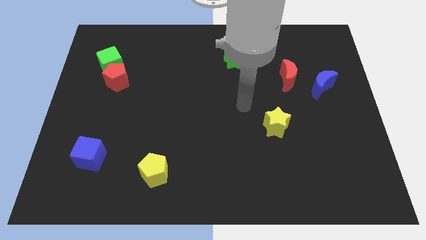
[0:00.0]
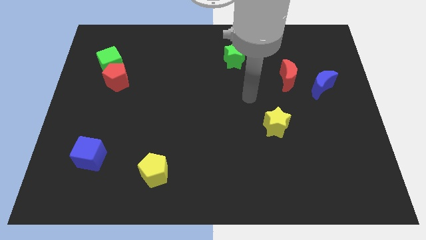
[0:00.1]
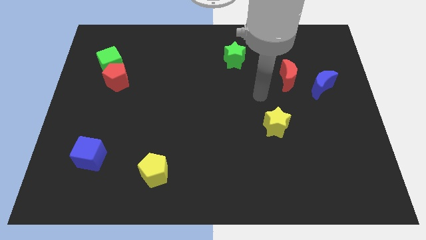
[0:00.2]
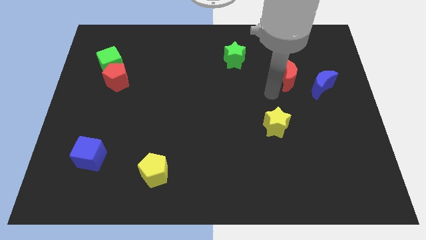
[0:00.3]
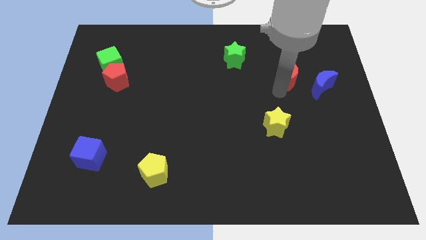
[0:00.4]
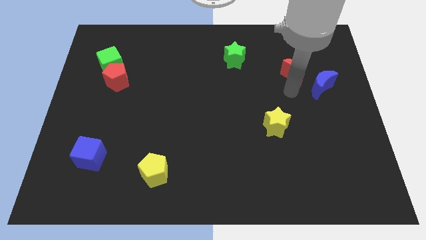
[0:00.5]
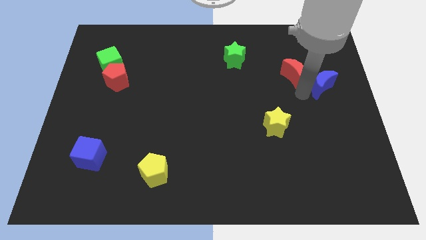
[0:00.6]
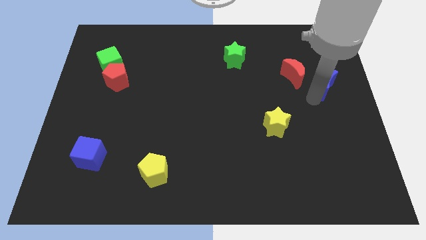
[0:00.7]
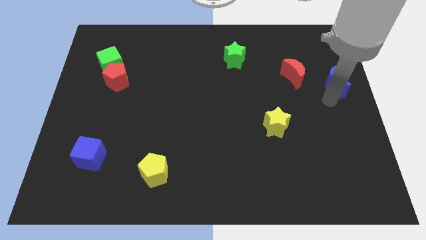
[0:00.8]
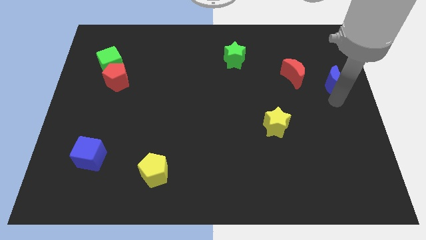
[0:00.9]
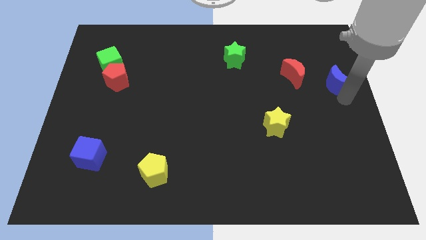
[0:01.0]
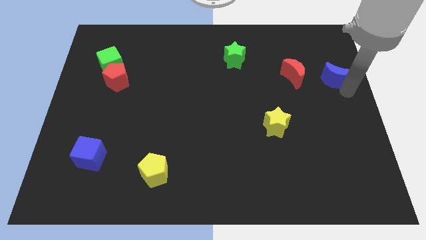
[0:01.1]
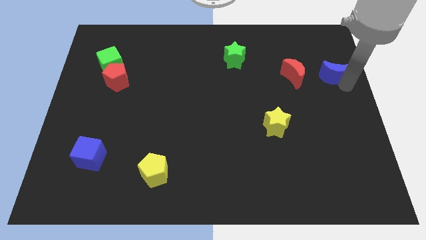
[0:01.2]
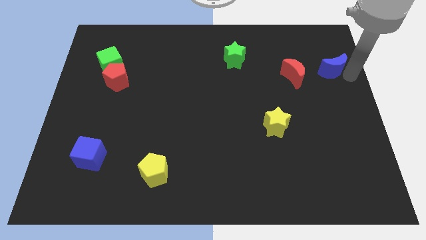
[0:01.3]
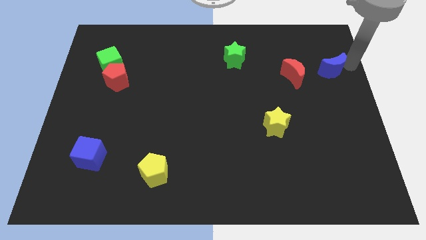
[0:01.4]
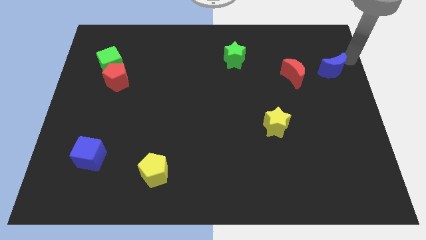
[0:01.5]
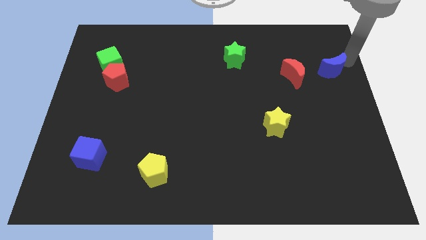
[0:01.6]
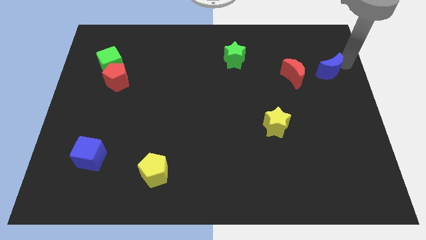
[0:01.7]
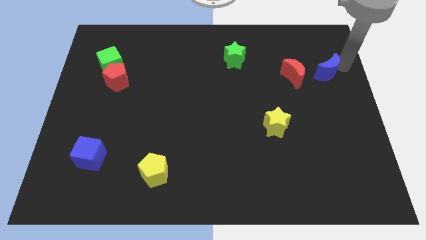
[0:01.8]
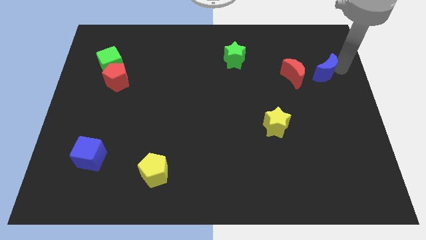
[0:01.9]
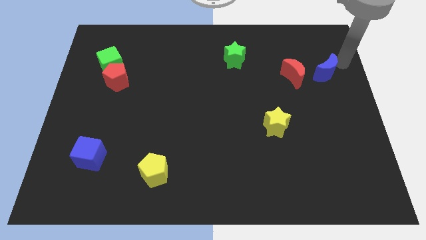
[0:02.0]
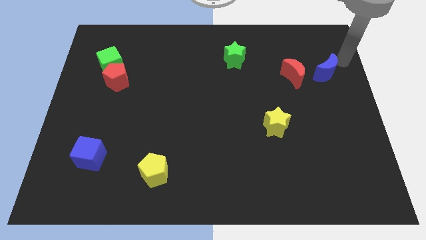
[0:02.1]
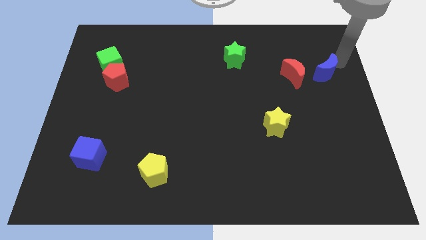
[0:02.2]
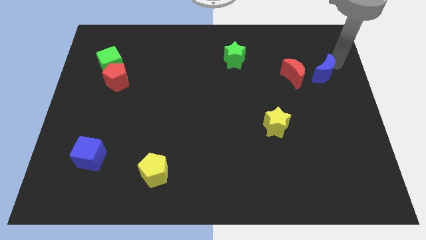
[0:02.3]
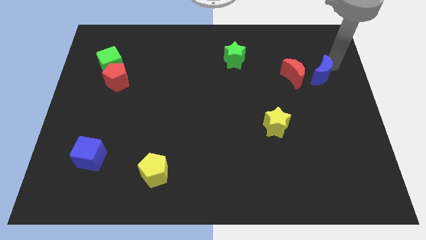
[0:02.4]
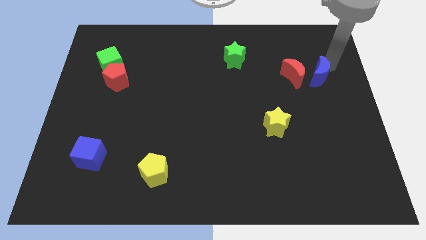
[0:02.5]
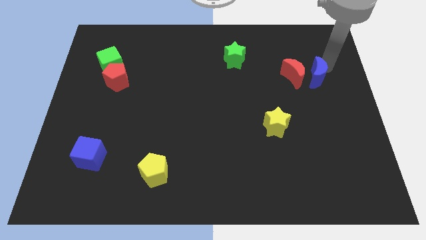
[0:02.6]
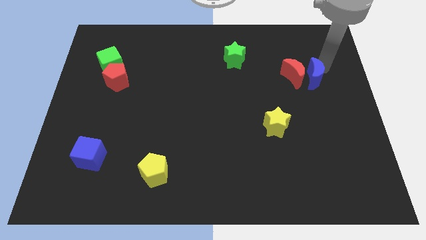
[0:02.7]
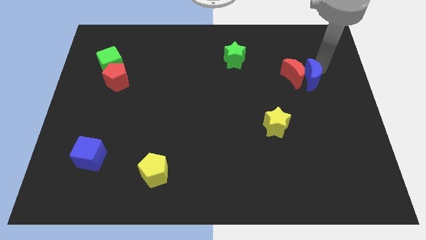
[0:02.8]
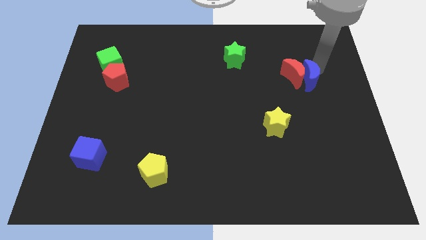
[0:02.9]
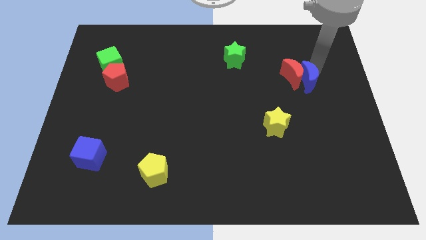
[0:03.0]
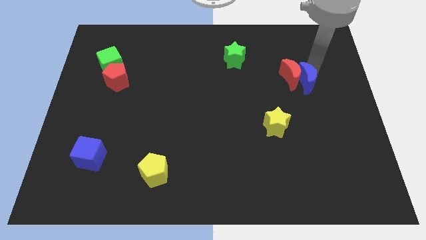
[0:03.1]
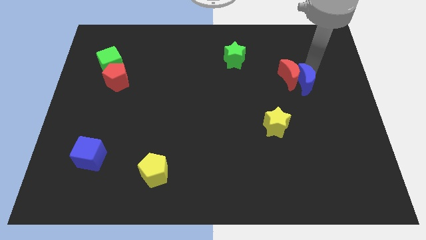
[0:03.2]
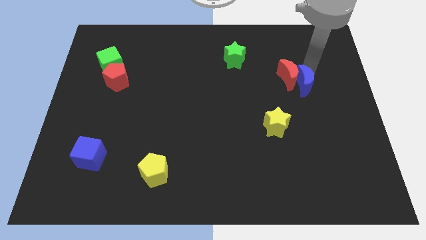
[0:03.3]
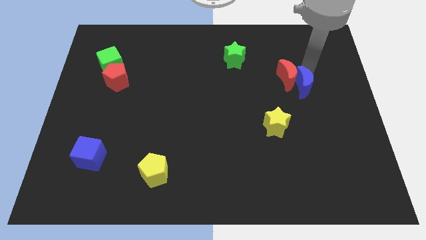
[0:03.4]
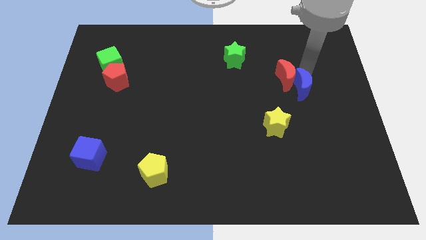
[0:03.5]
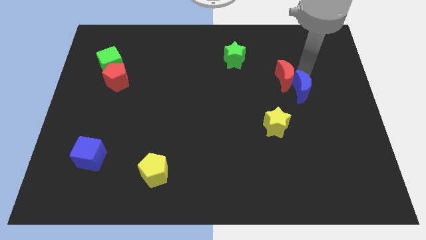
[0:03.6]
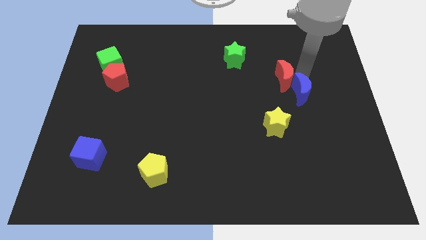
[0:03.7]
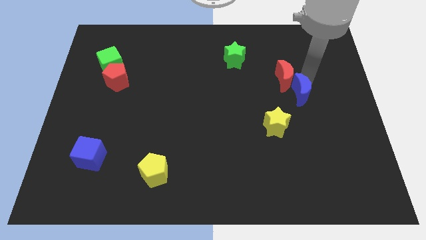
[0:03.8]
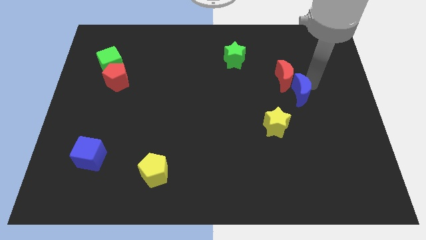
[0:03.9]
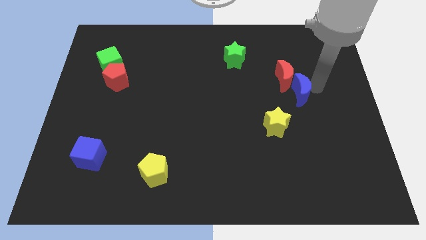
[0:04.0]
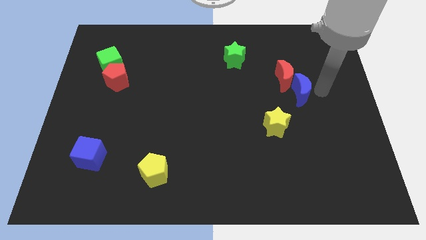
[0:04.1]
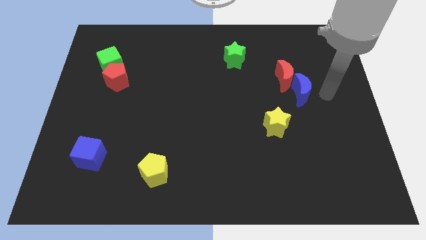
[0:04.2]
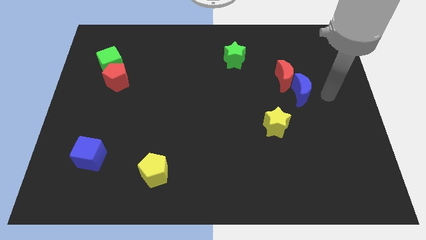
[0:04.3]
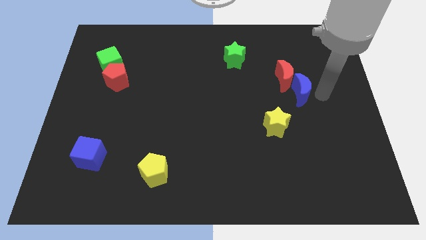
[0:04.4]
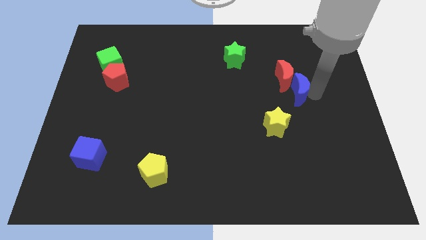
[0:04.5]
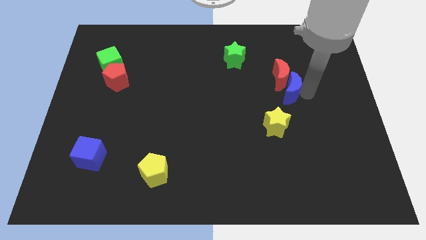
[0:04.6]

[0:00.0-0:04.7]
move the blue moon left somewhat

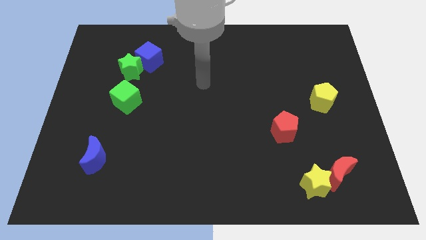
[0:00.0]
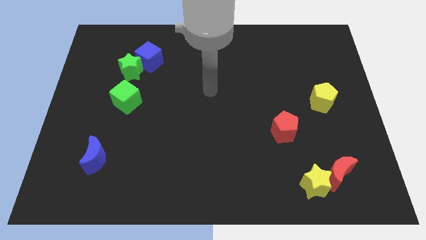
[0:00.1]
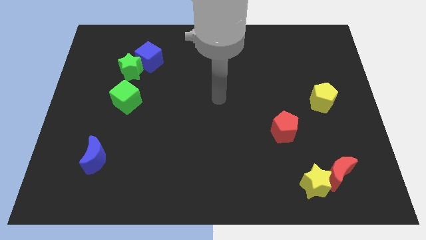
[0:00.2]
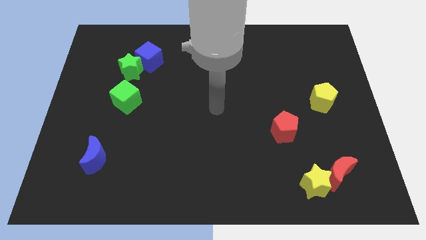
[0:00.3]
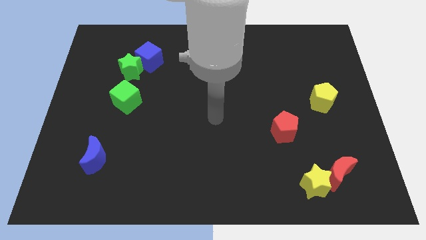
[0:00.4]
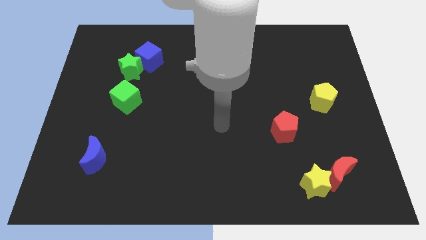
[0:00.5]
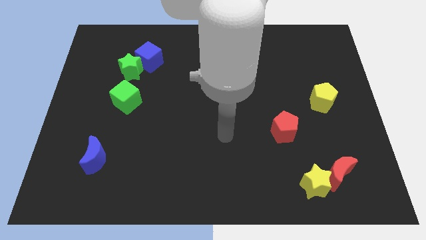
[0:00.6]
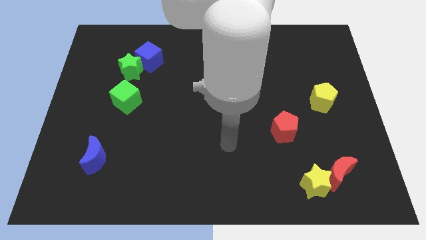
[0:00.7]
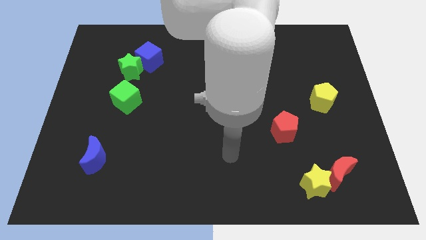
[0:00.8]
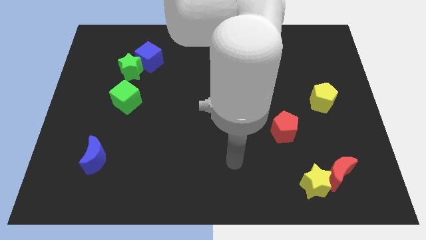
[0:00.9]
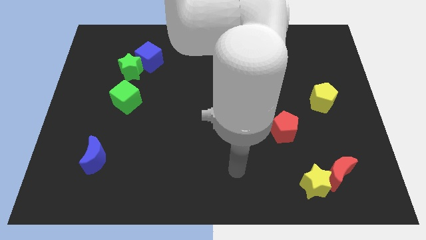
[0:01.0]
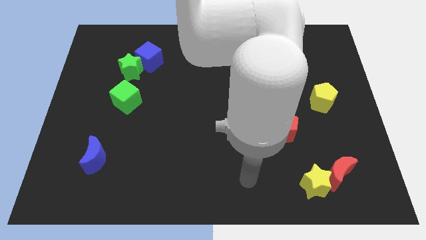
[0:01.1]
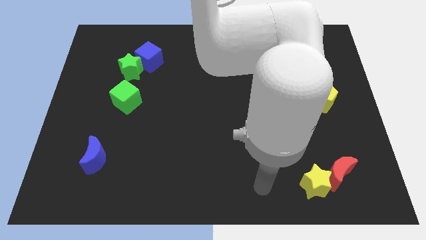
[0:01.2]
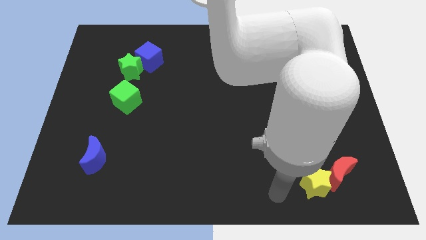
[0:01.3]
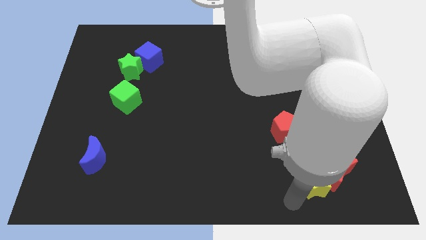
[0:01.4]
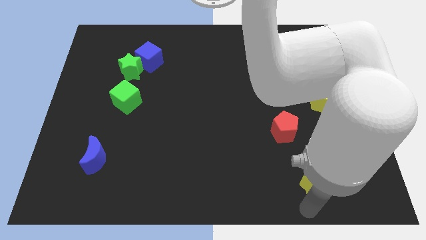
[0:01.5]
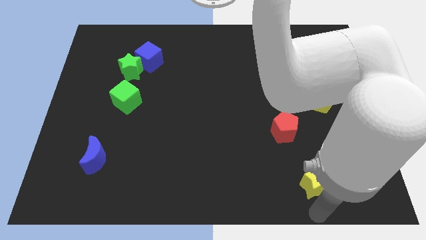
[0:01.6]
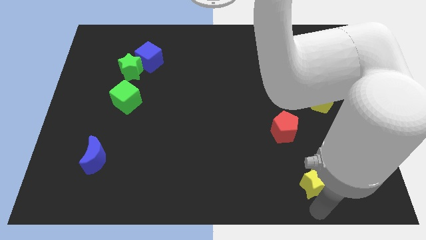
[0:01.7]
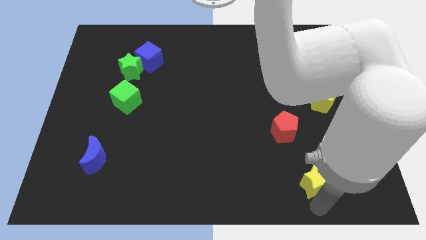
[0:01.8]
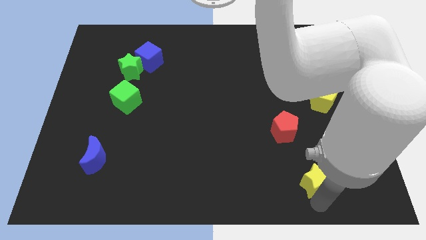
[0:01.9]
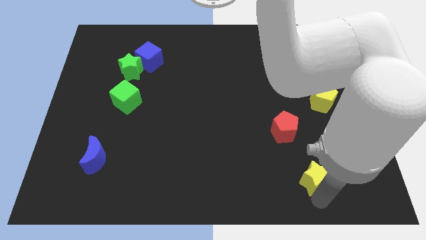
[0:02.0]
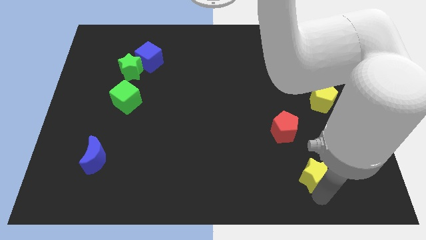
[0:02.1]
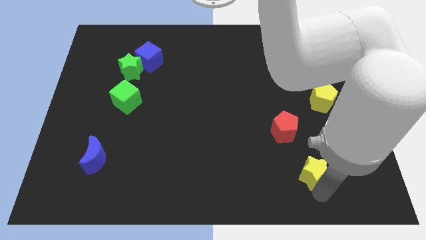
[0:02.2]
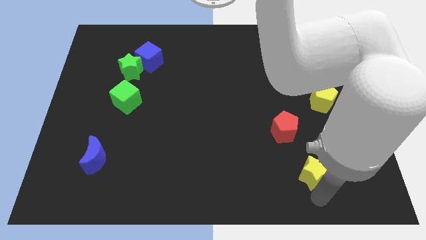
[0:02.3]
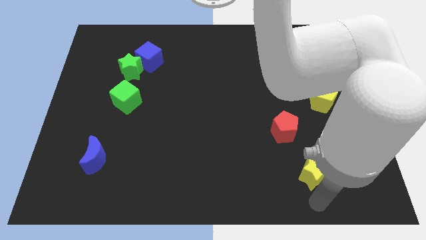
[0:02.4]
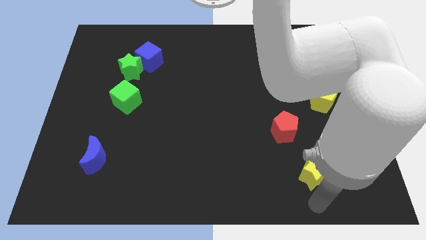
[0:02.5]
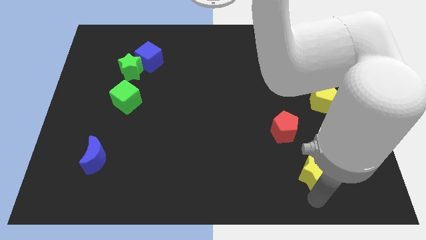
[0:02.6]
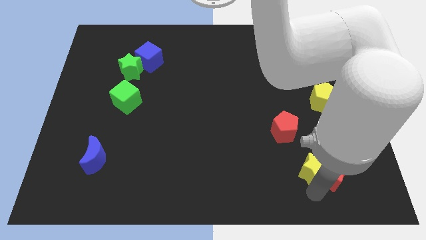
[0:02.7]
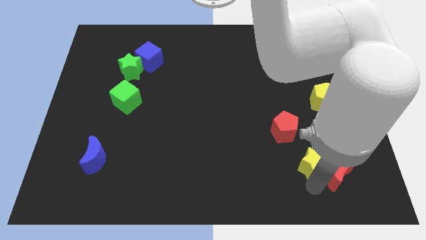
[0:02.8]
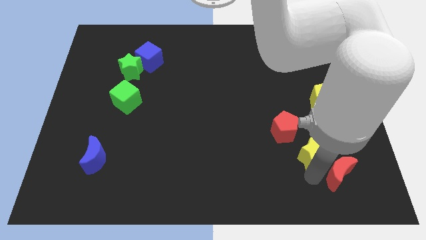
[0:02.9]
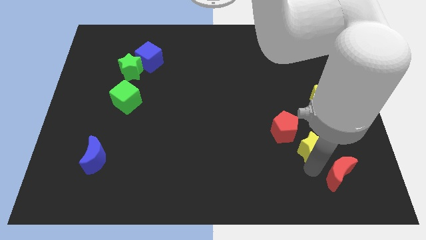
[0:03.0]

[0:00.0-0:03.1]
slightly push the yellow star up
